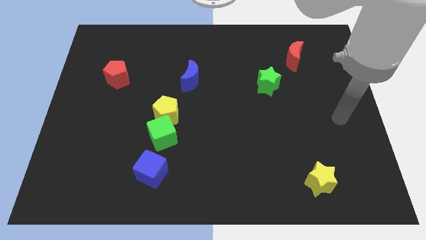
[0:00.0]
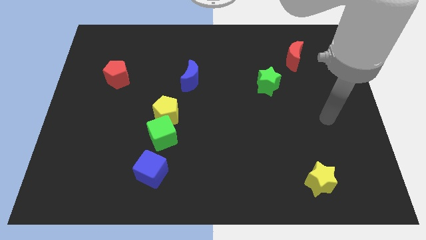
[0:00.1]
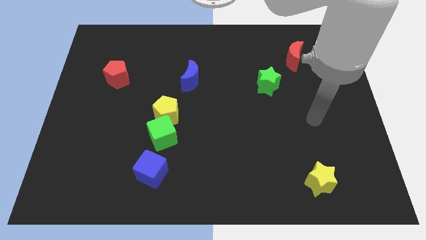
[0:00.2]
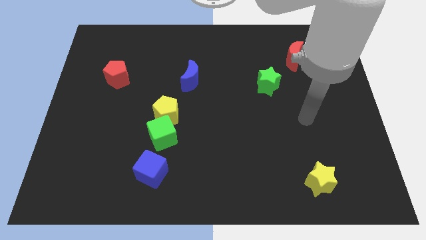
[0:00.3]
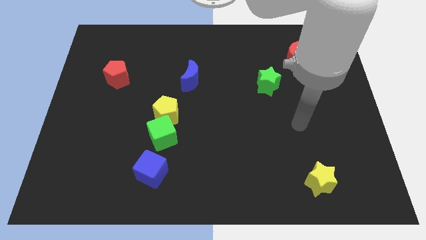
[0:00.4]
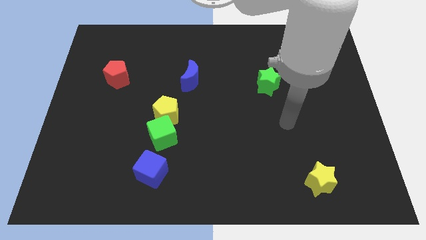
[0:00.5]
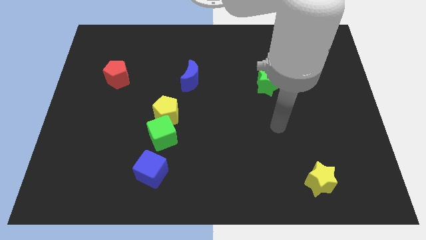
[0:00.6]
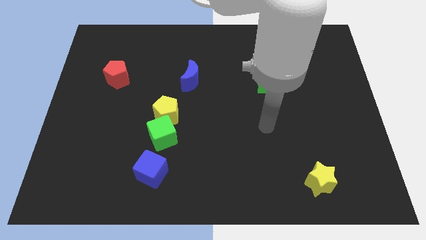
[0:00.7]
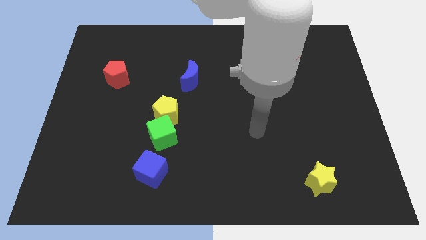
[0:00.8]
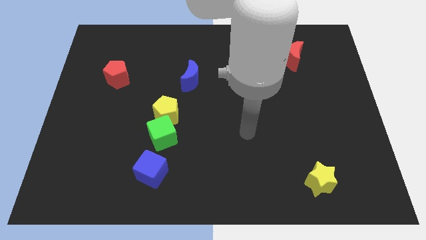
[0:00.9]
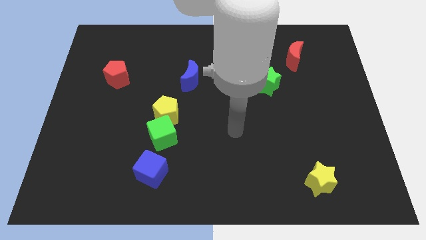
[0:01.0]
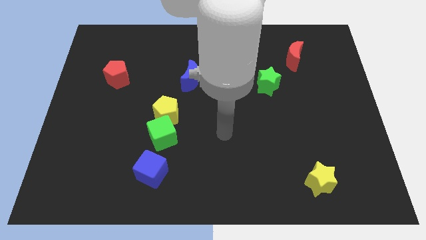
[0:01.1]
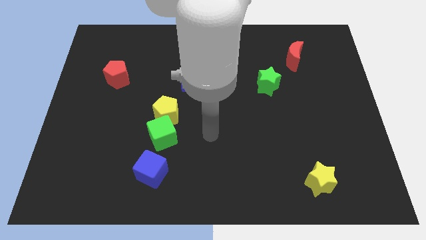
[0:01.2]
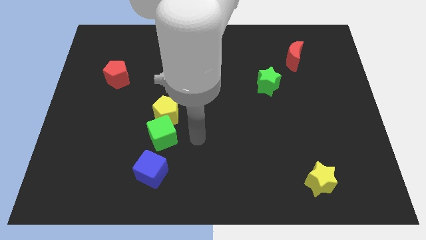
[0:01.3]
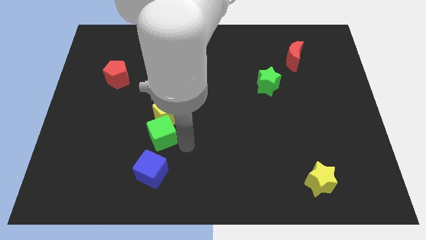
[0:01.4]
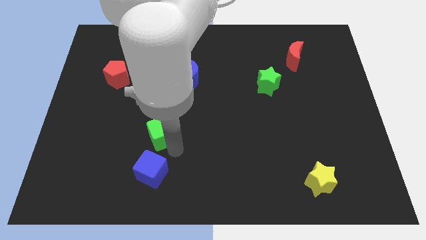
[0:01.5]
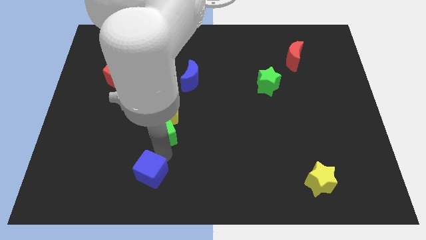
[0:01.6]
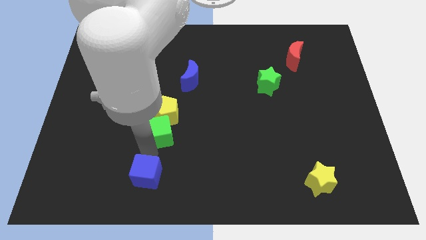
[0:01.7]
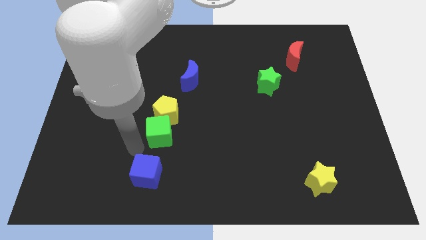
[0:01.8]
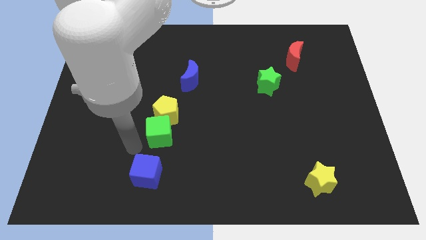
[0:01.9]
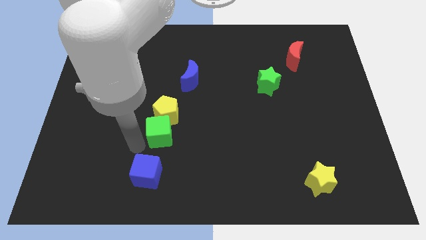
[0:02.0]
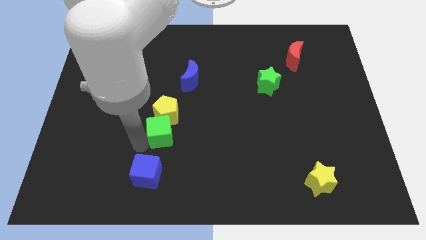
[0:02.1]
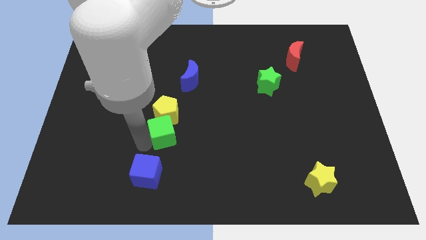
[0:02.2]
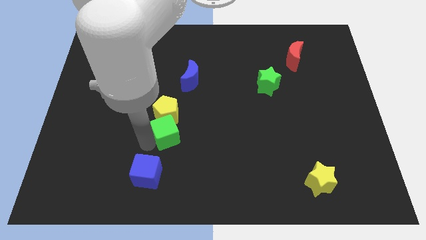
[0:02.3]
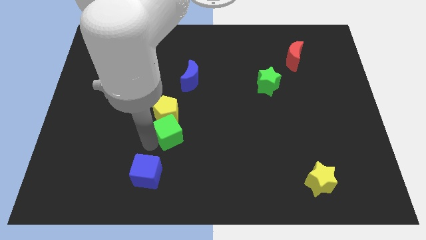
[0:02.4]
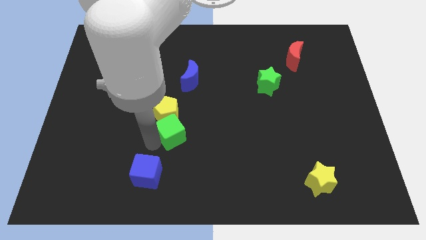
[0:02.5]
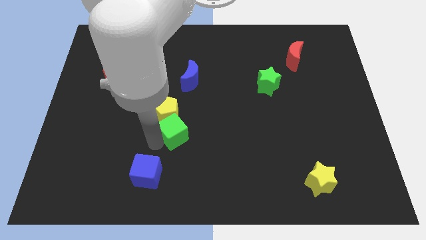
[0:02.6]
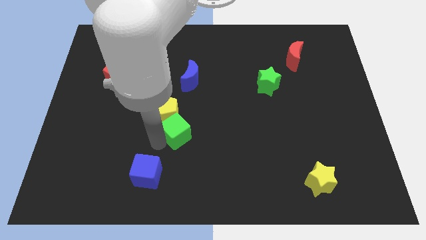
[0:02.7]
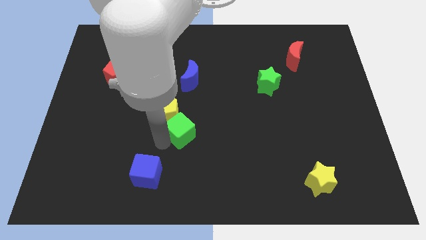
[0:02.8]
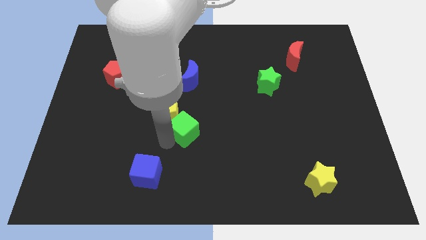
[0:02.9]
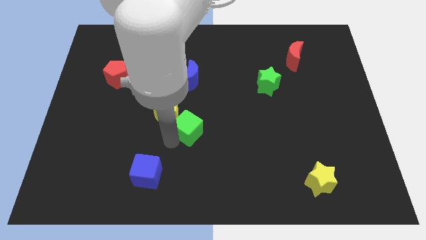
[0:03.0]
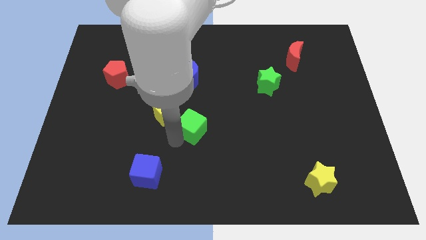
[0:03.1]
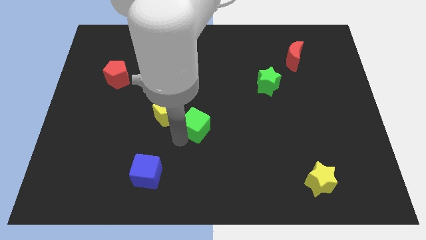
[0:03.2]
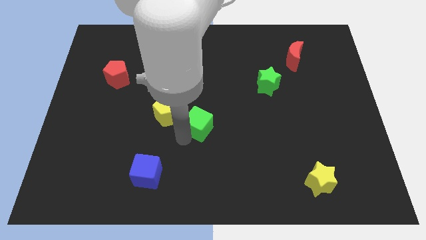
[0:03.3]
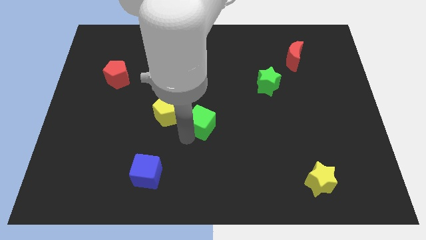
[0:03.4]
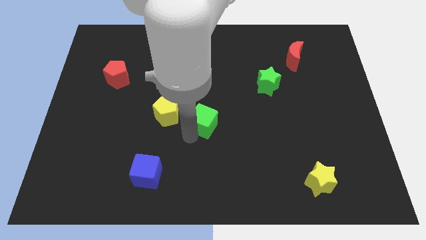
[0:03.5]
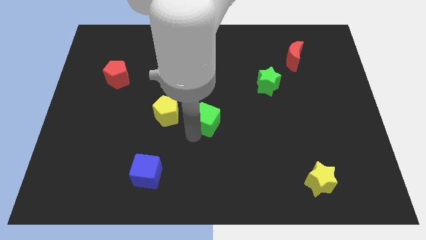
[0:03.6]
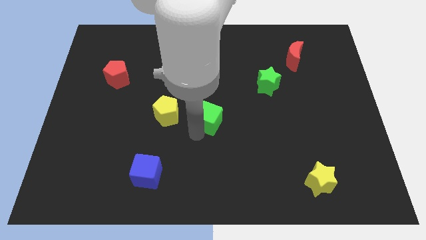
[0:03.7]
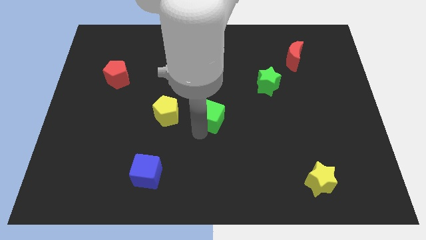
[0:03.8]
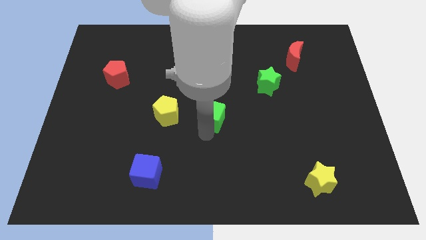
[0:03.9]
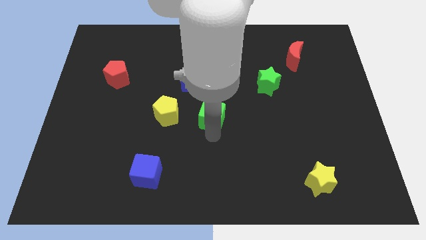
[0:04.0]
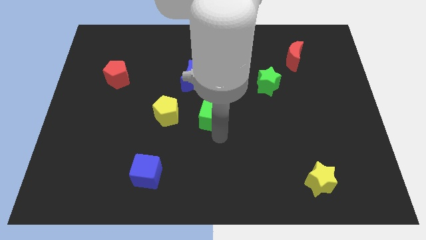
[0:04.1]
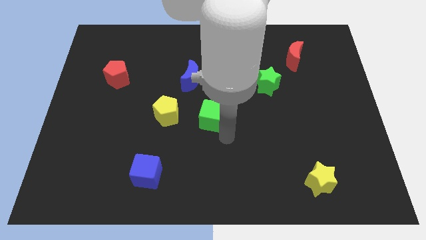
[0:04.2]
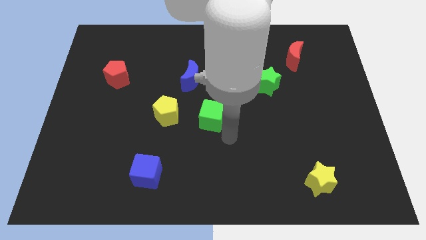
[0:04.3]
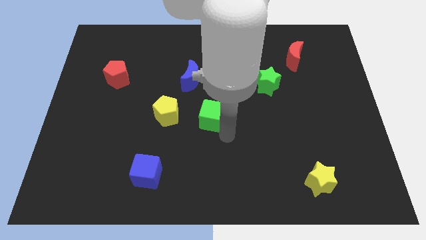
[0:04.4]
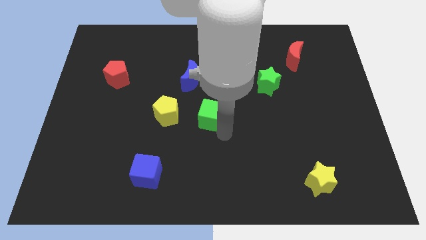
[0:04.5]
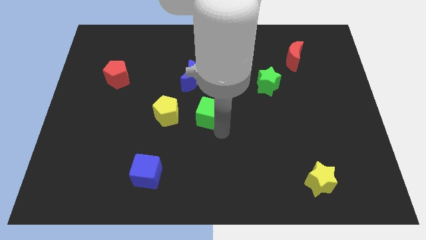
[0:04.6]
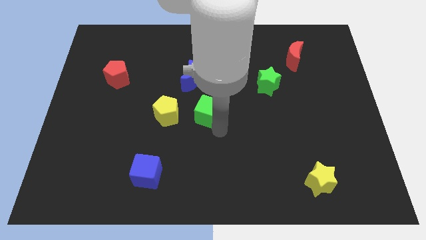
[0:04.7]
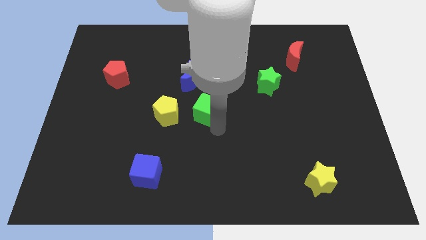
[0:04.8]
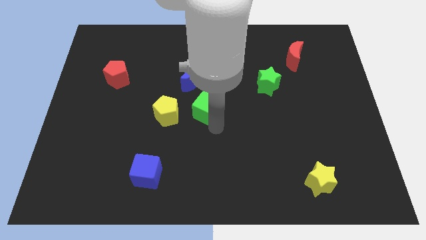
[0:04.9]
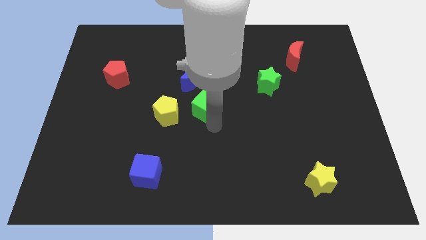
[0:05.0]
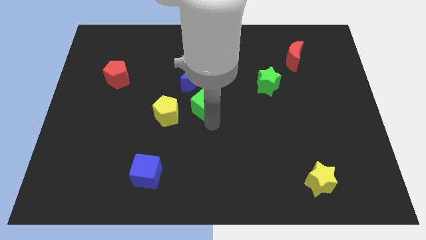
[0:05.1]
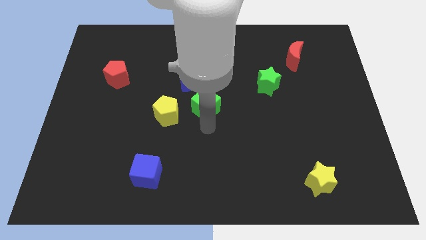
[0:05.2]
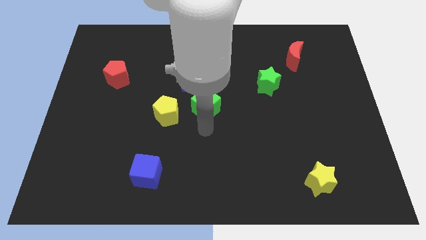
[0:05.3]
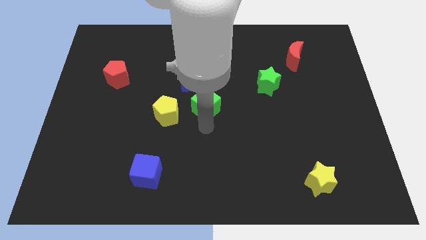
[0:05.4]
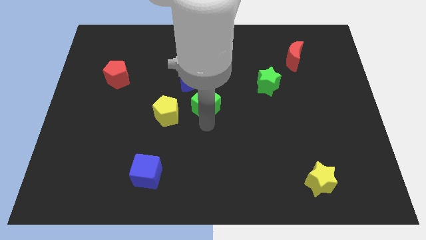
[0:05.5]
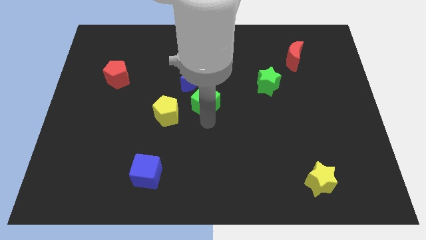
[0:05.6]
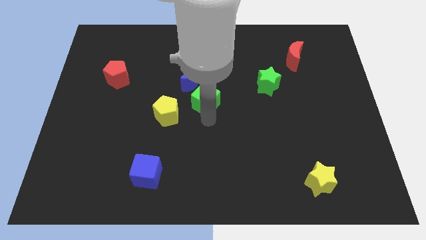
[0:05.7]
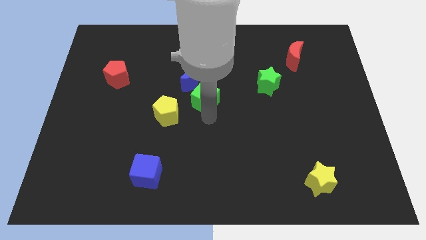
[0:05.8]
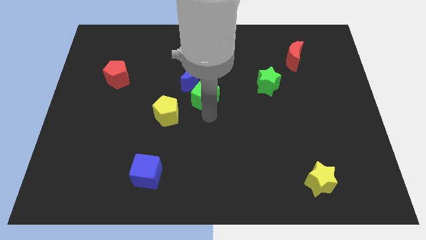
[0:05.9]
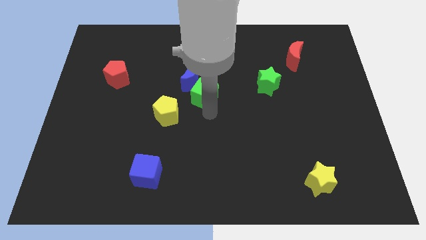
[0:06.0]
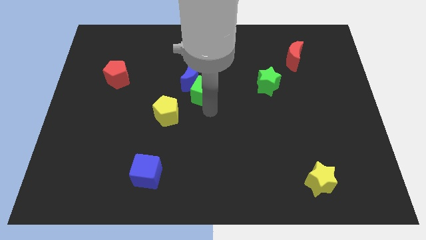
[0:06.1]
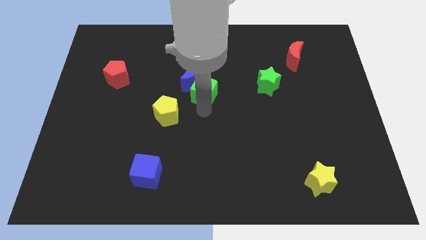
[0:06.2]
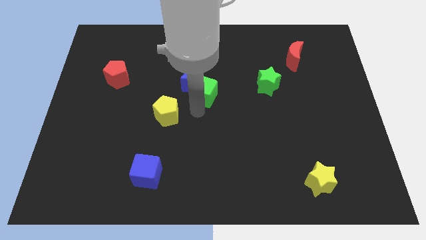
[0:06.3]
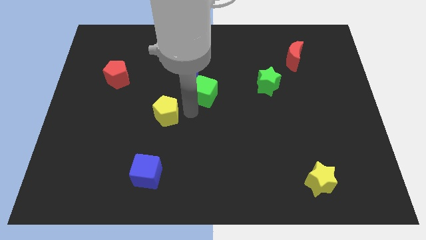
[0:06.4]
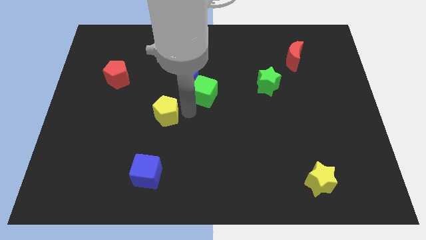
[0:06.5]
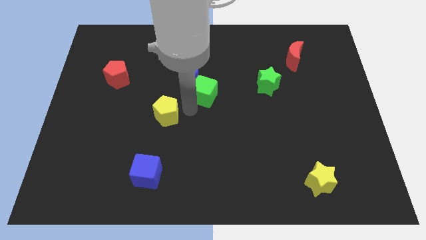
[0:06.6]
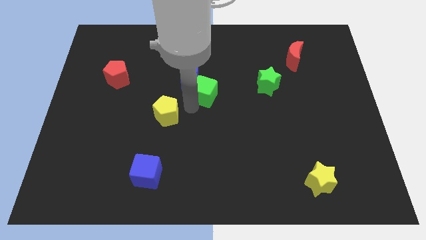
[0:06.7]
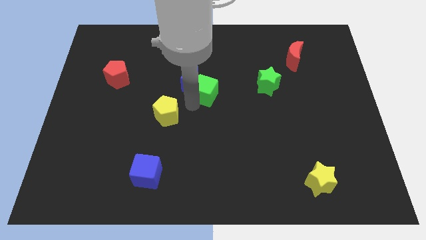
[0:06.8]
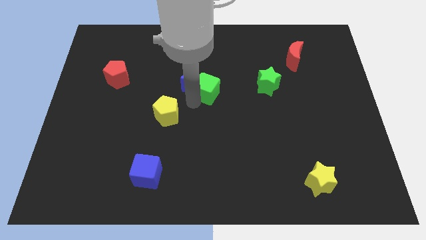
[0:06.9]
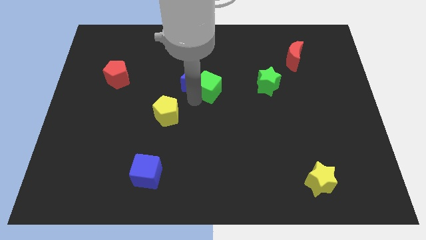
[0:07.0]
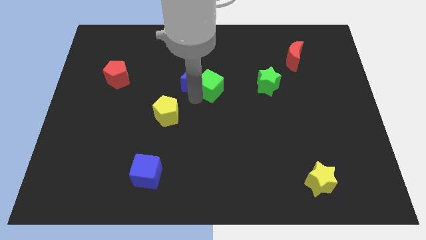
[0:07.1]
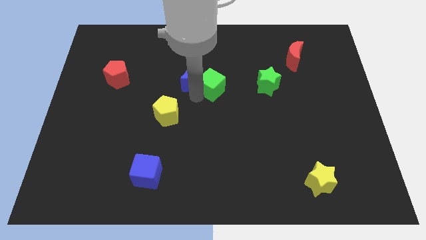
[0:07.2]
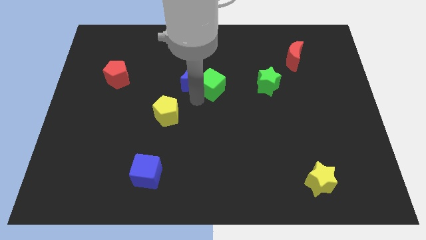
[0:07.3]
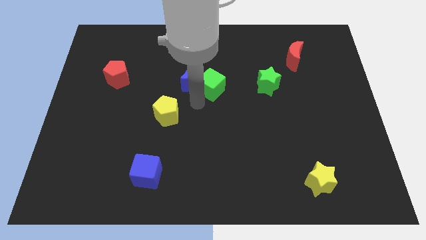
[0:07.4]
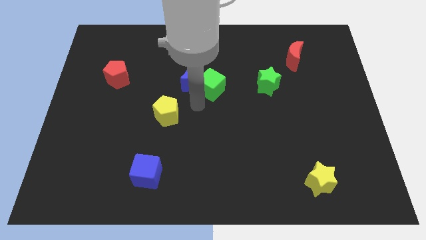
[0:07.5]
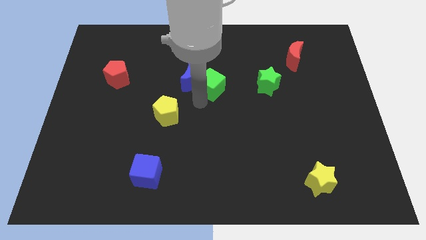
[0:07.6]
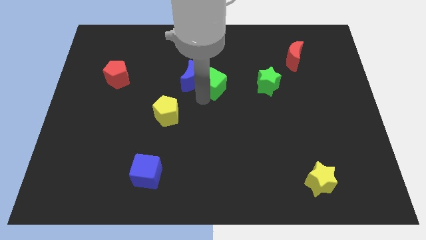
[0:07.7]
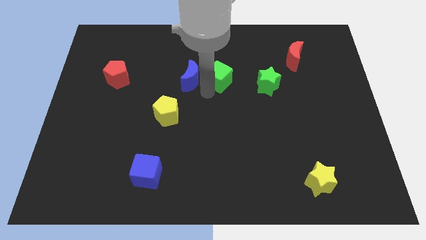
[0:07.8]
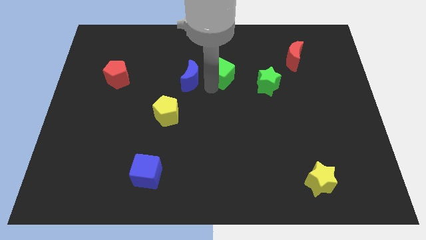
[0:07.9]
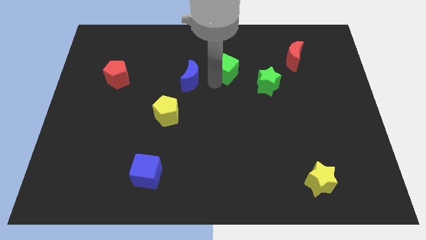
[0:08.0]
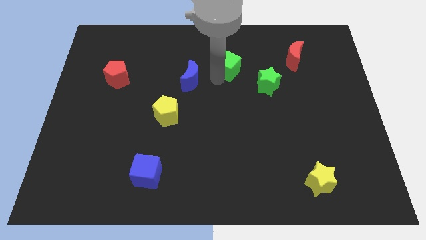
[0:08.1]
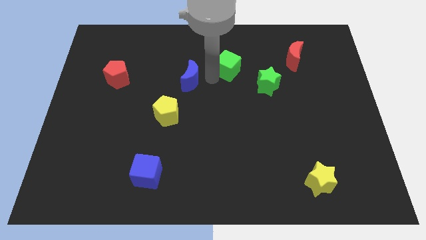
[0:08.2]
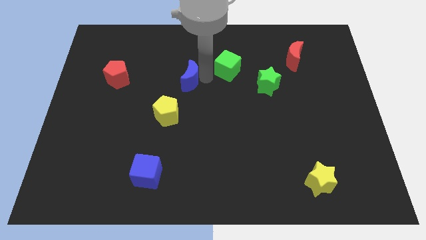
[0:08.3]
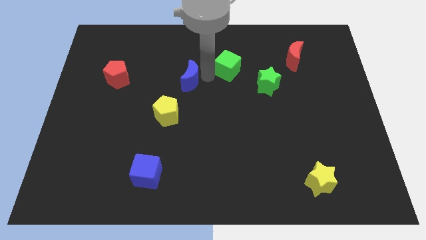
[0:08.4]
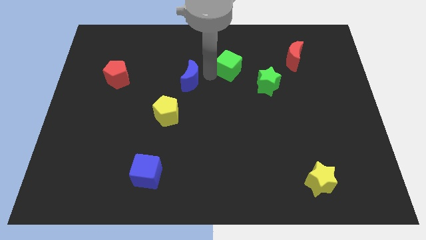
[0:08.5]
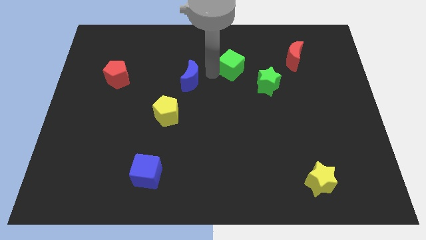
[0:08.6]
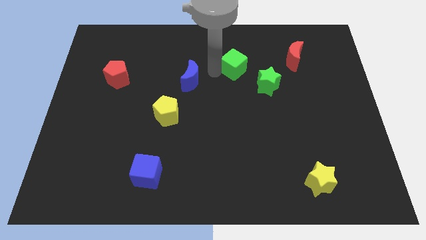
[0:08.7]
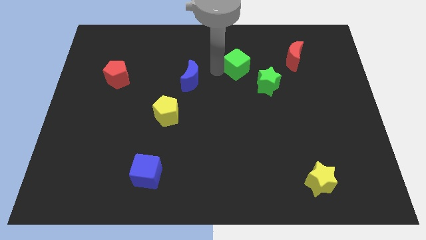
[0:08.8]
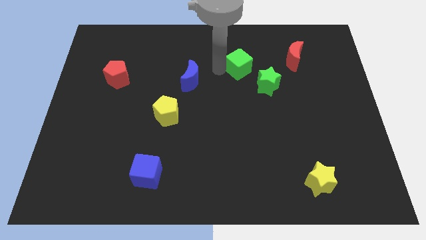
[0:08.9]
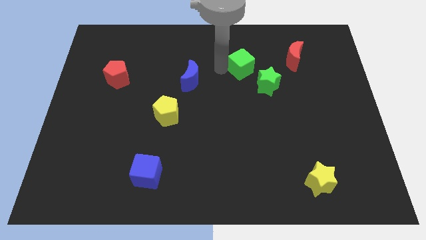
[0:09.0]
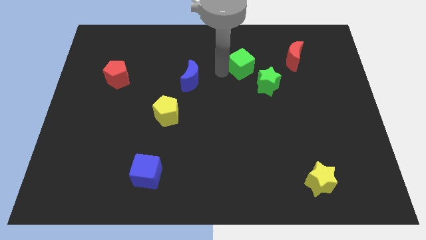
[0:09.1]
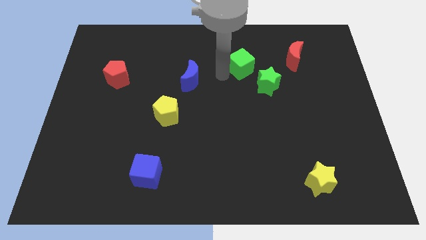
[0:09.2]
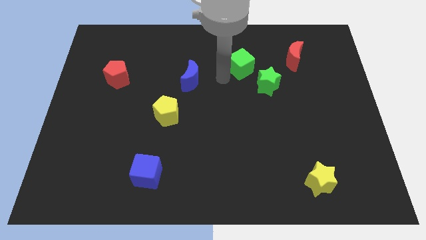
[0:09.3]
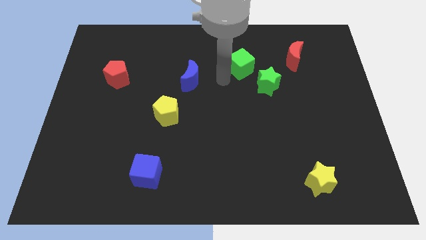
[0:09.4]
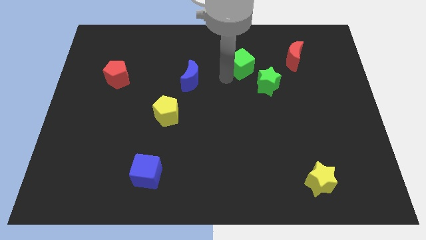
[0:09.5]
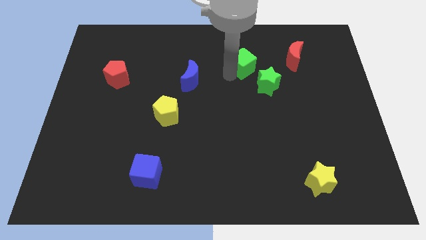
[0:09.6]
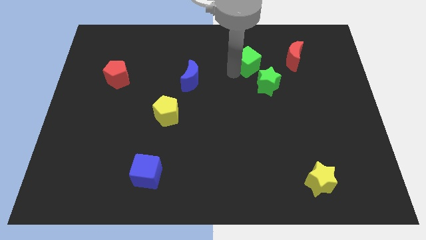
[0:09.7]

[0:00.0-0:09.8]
slide the green cube to the top of the green star
